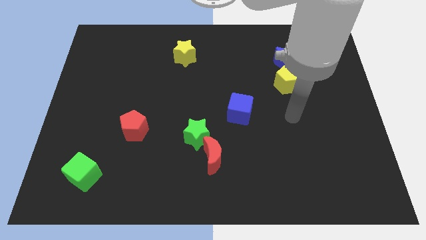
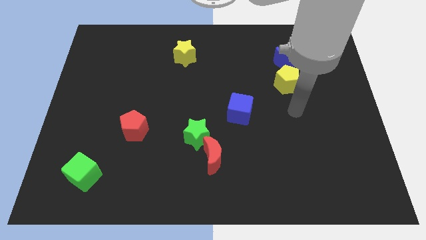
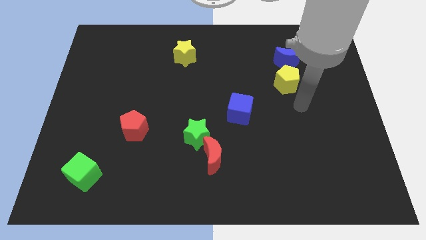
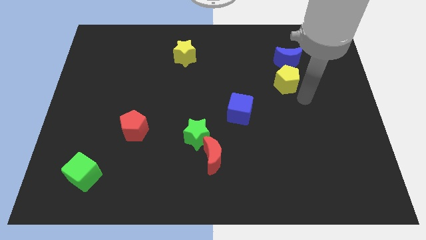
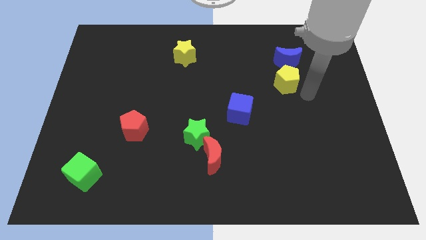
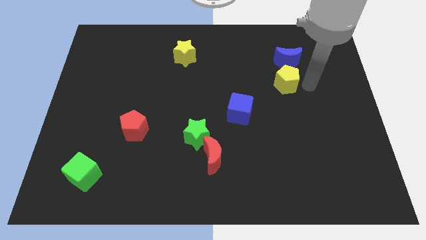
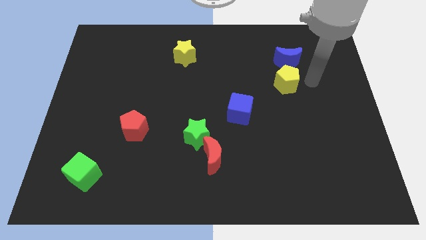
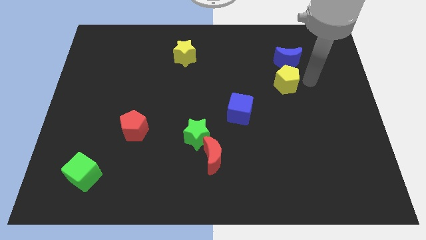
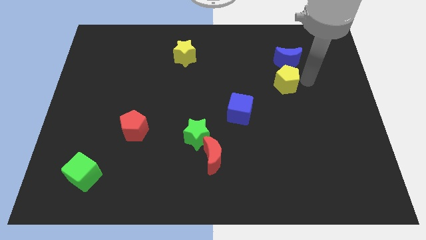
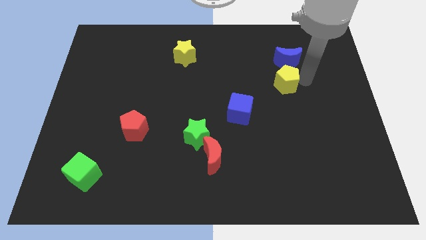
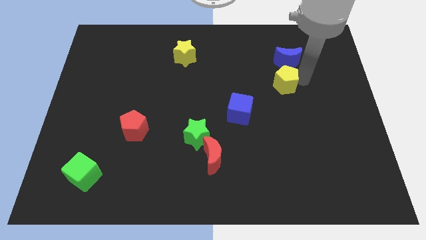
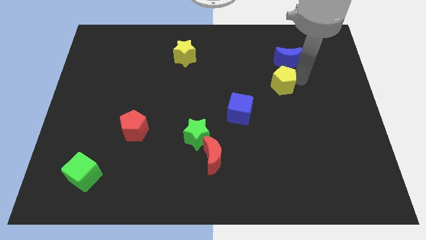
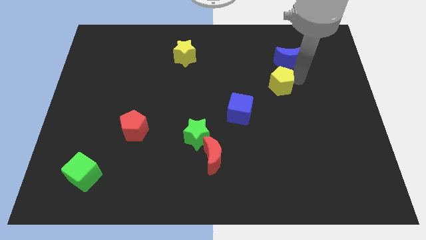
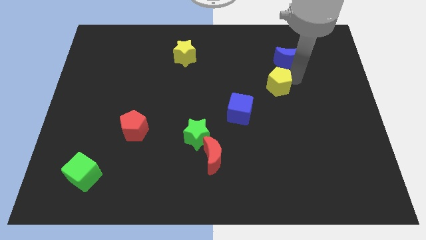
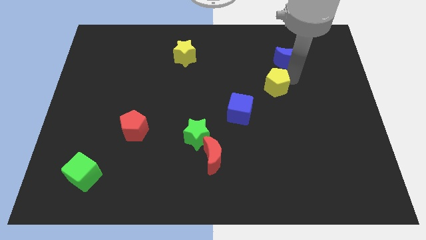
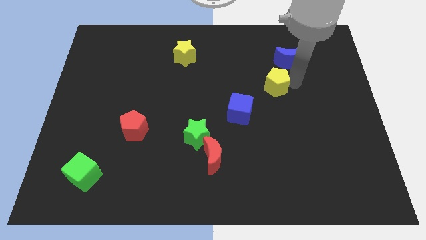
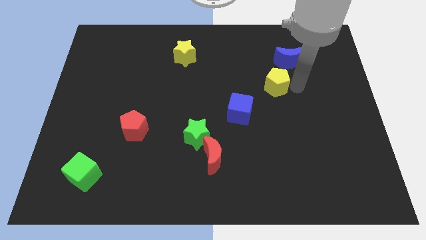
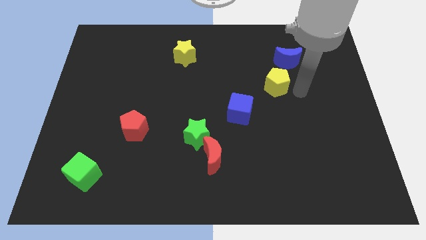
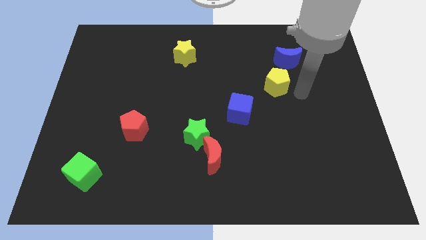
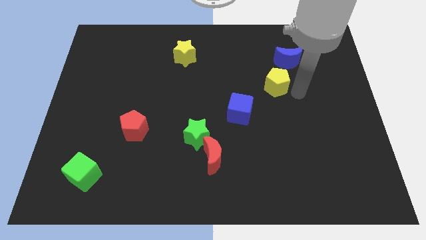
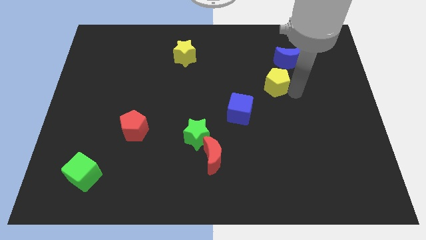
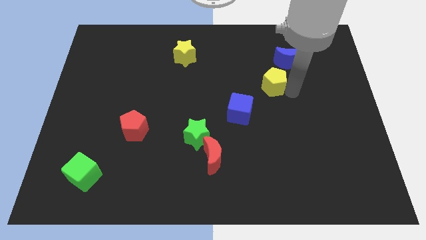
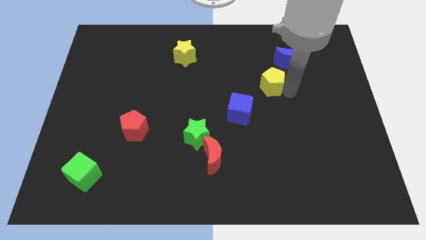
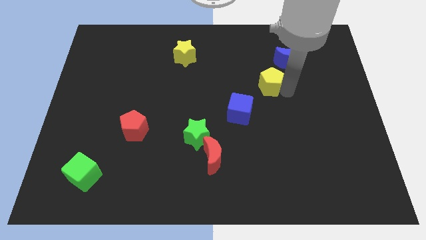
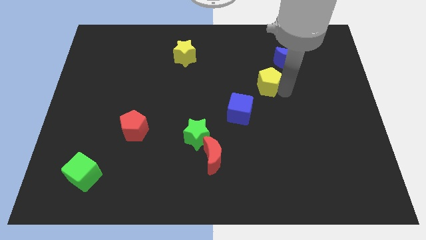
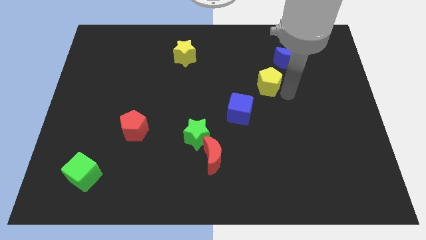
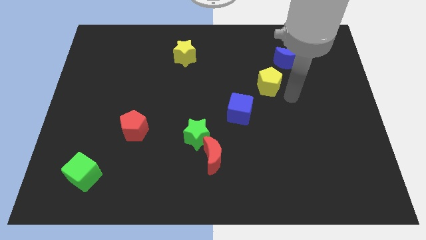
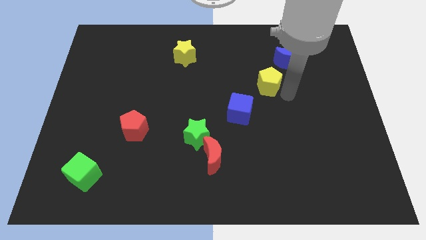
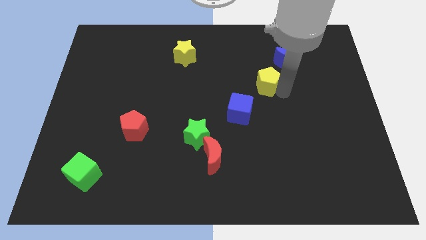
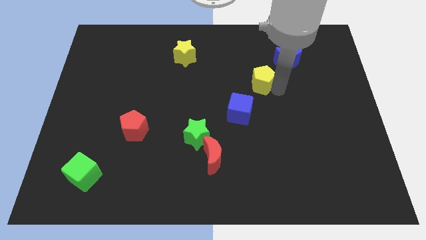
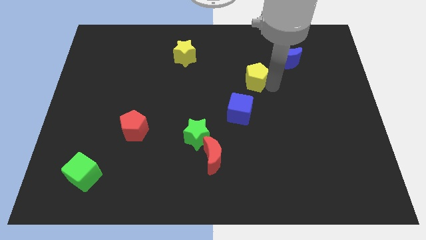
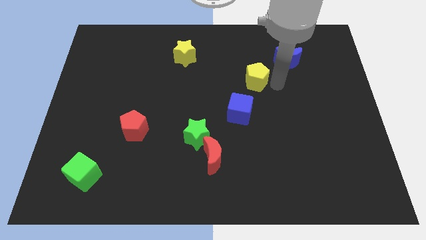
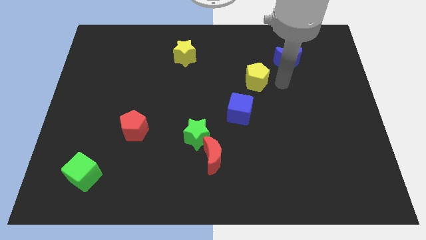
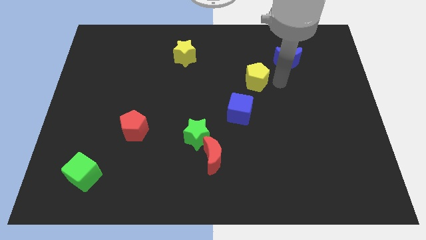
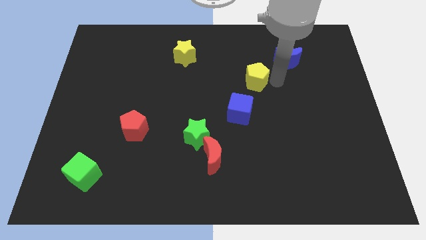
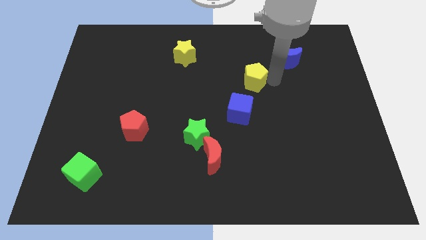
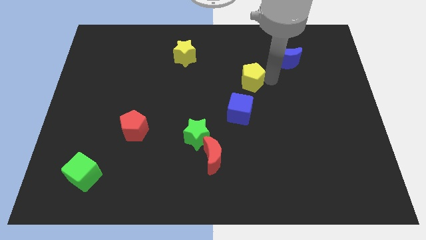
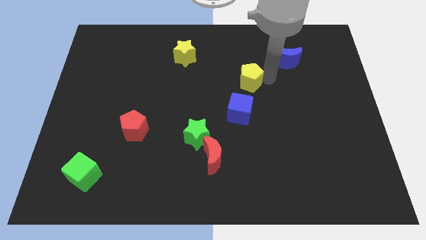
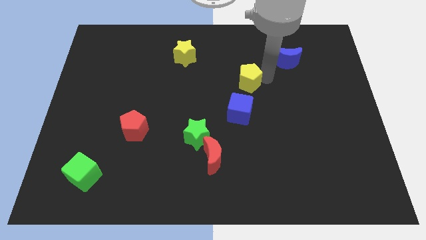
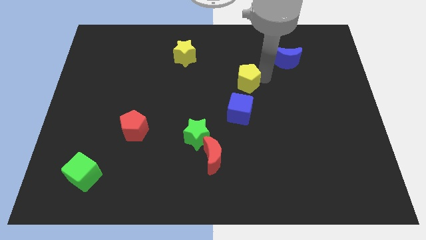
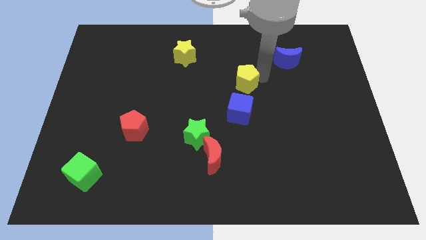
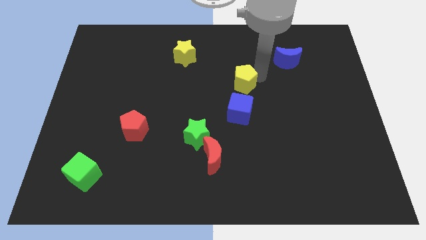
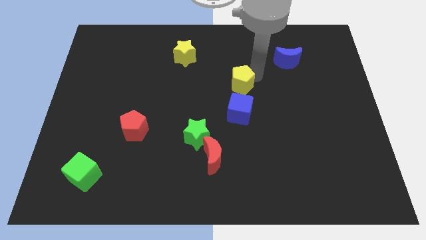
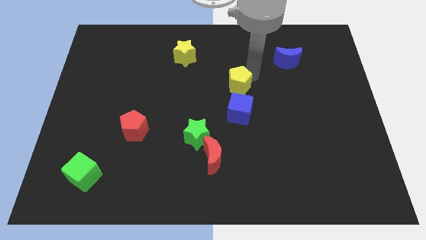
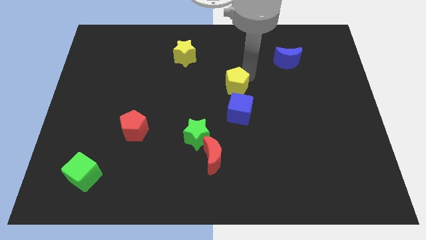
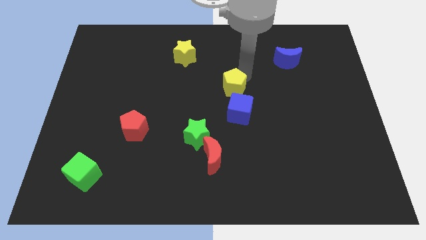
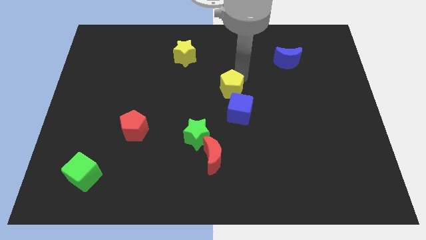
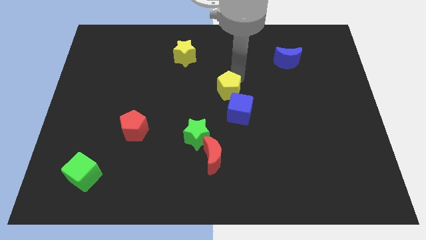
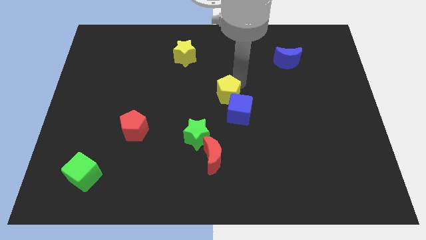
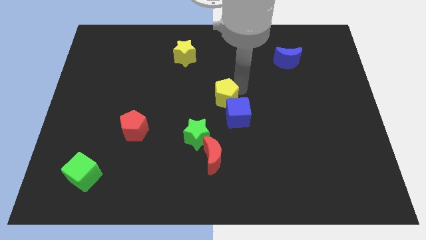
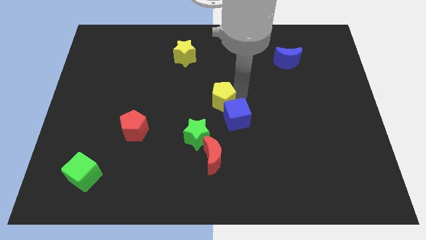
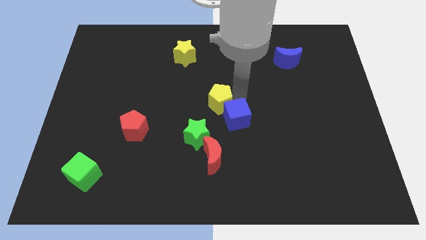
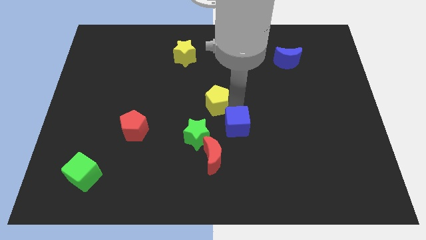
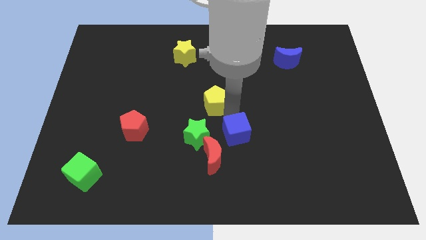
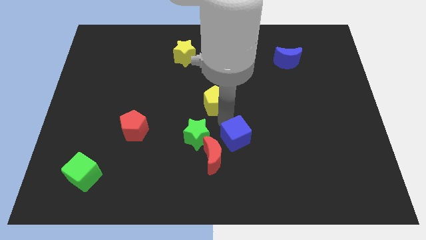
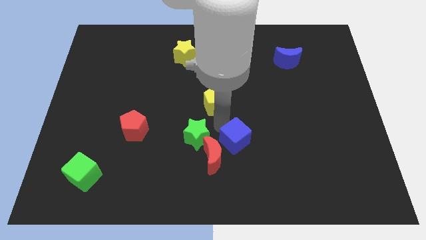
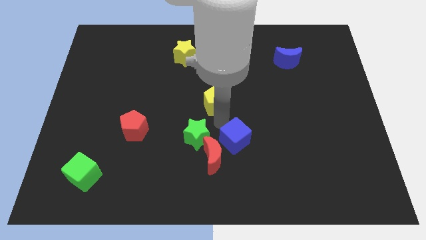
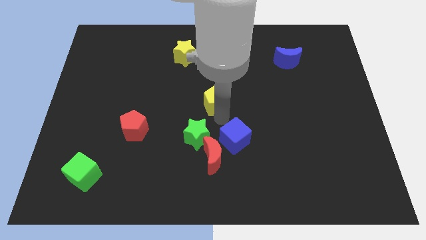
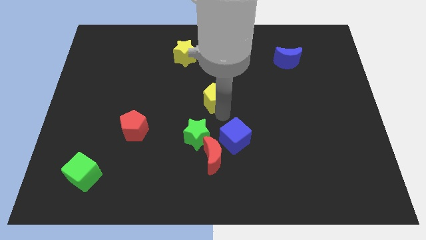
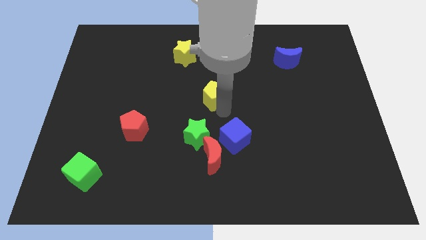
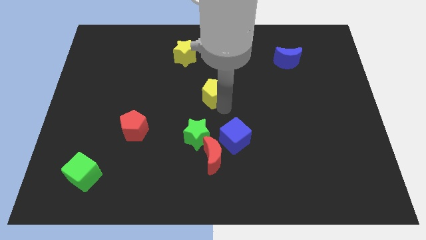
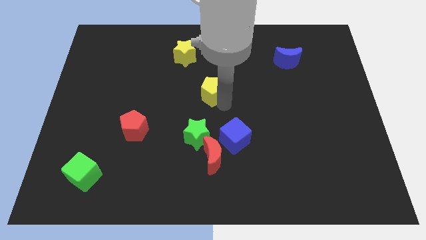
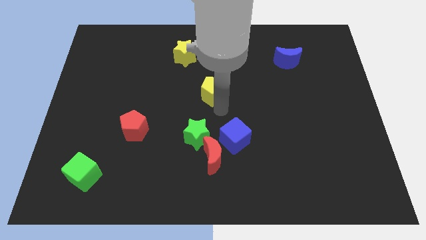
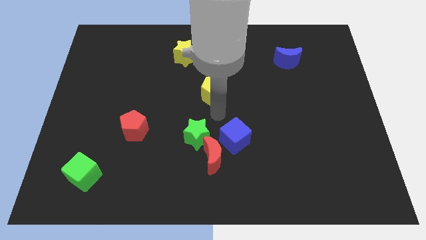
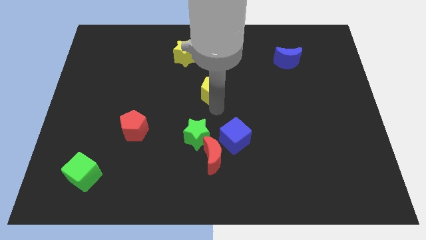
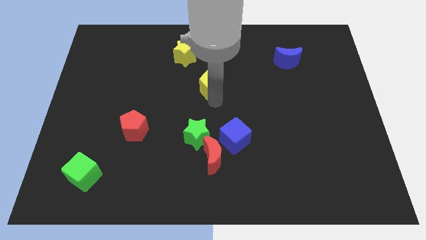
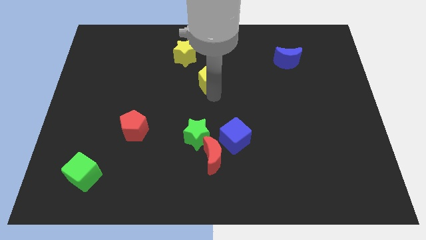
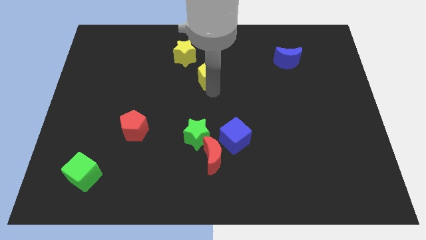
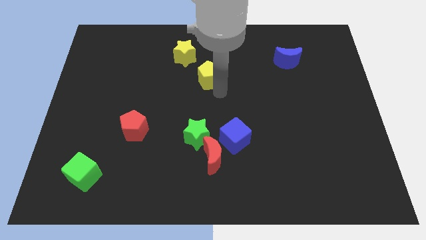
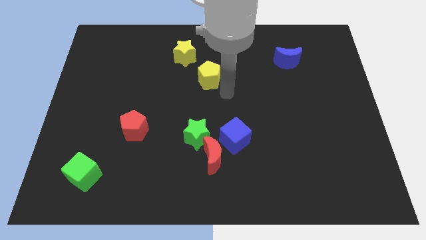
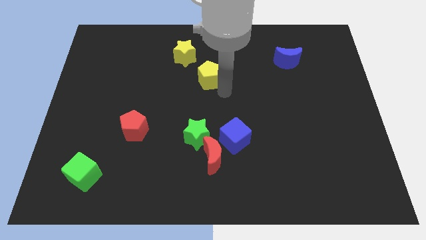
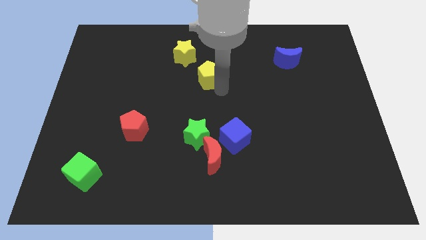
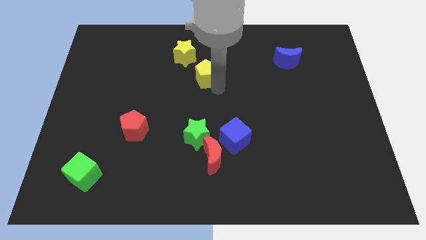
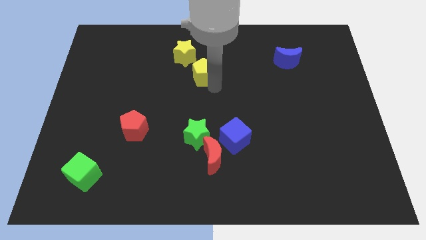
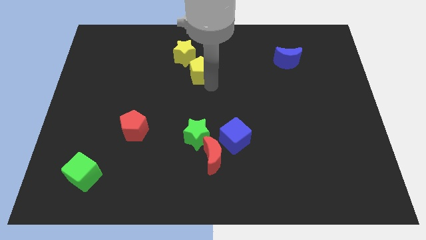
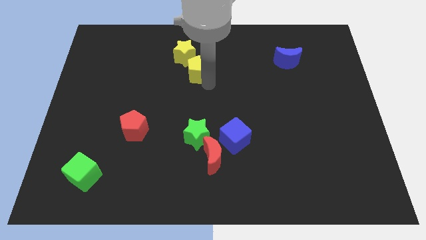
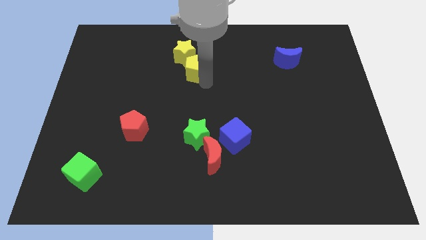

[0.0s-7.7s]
put the yellow pentagon towards the yellow star
